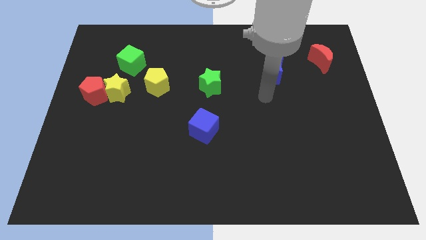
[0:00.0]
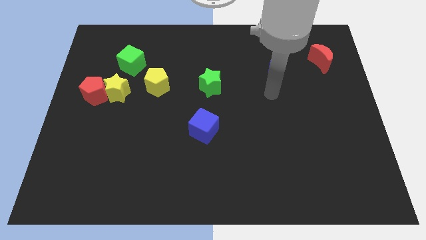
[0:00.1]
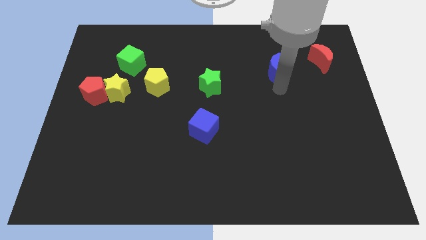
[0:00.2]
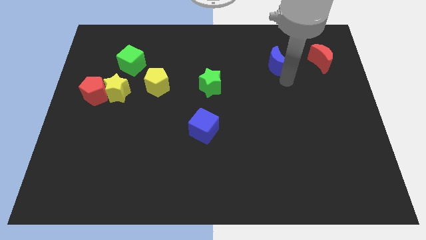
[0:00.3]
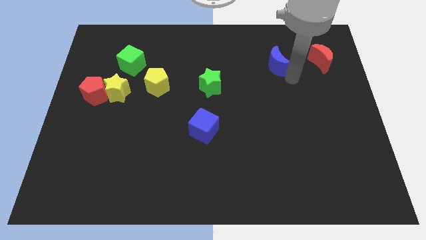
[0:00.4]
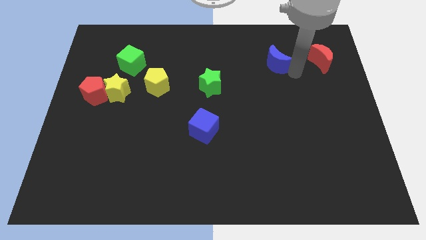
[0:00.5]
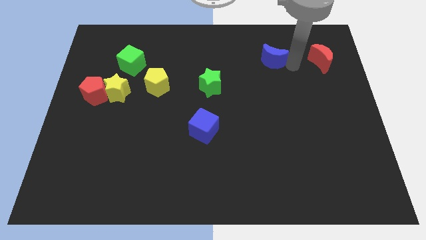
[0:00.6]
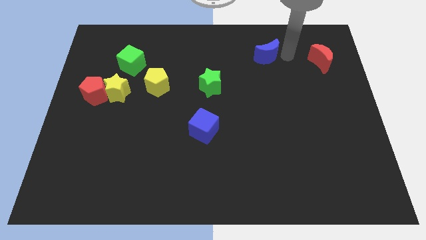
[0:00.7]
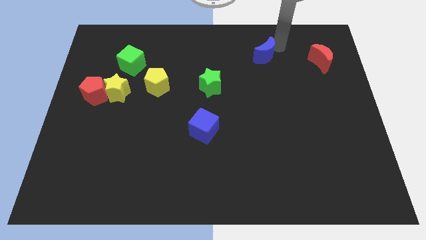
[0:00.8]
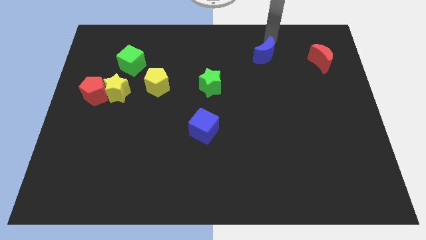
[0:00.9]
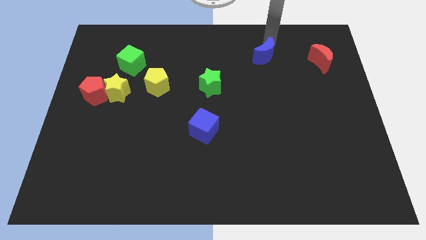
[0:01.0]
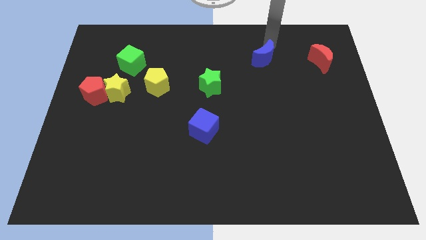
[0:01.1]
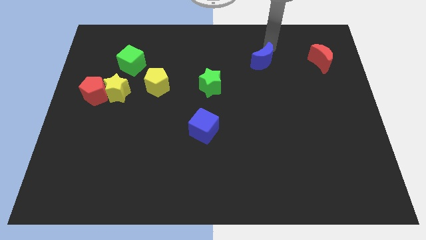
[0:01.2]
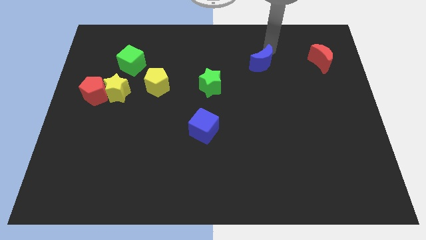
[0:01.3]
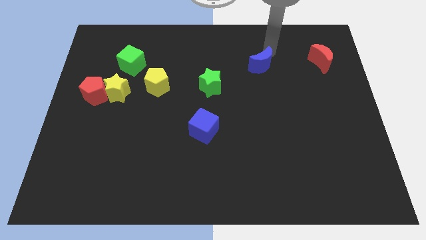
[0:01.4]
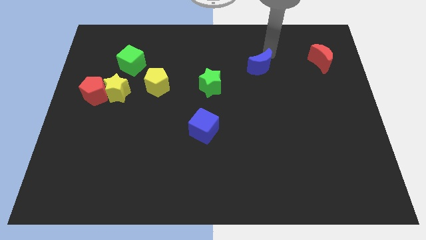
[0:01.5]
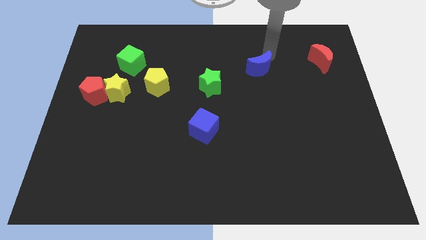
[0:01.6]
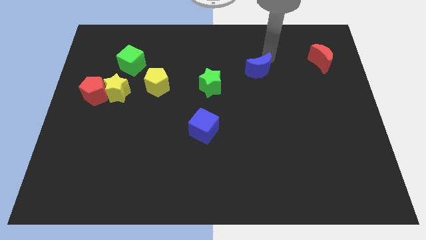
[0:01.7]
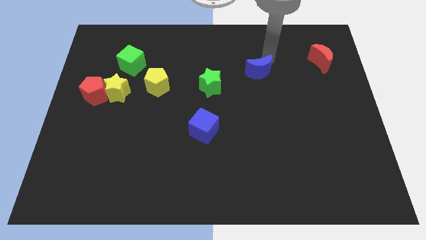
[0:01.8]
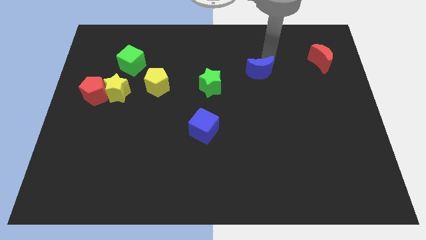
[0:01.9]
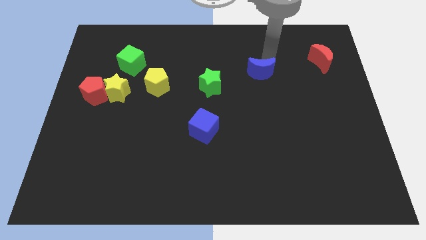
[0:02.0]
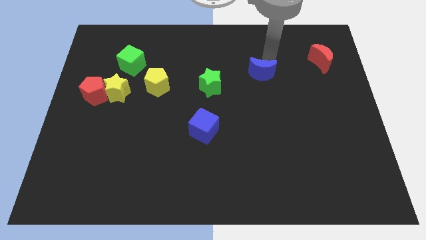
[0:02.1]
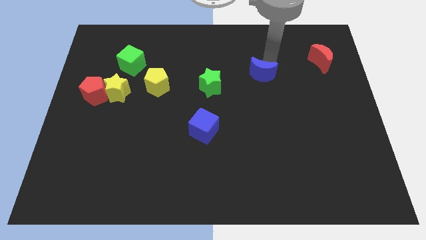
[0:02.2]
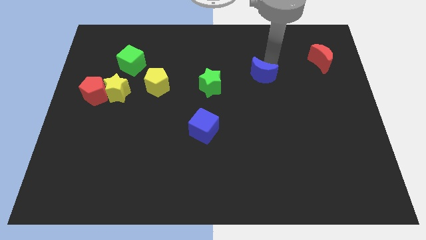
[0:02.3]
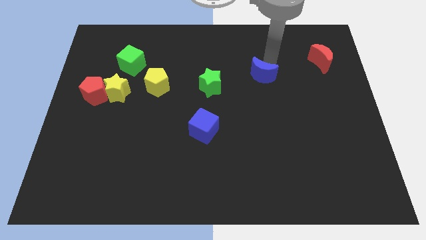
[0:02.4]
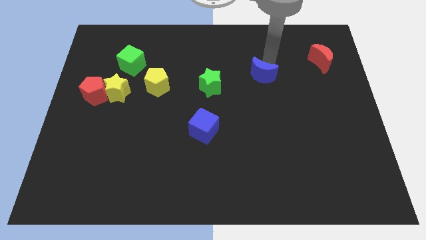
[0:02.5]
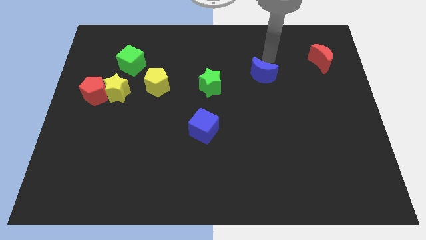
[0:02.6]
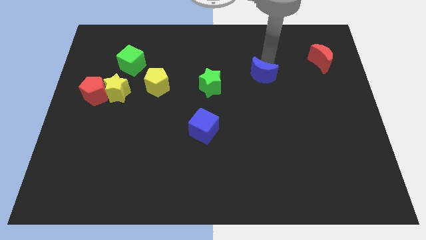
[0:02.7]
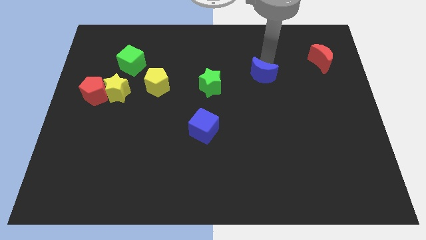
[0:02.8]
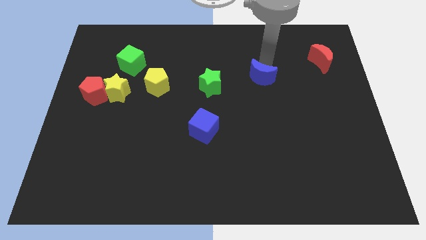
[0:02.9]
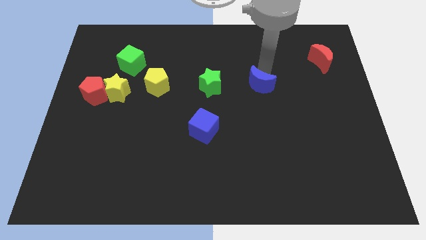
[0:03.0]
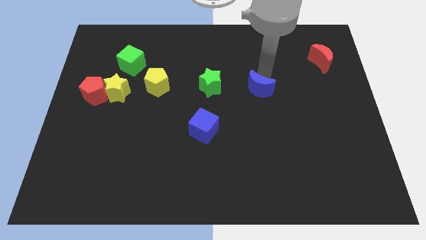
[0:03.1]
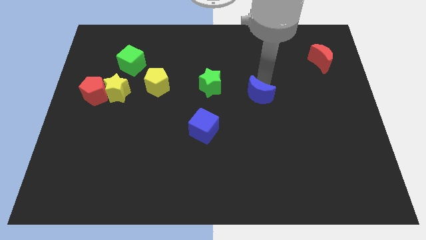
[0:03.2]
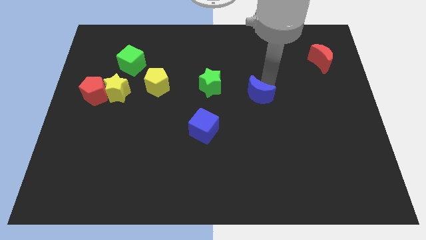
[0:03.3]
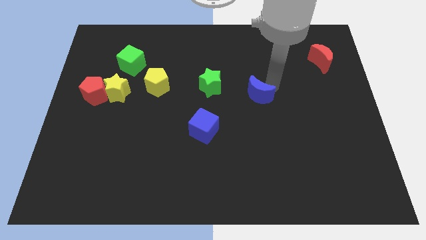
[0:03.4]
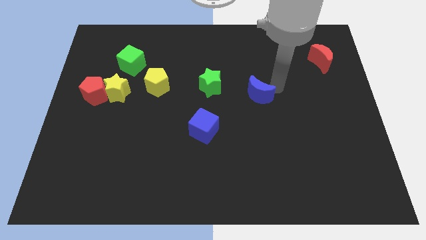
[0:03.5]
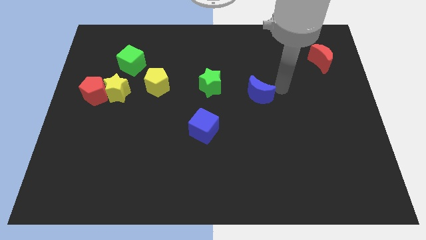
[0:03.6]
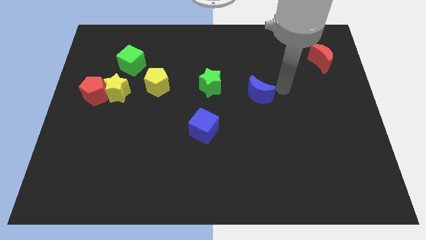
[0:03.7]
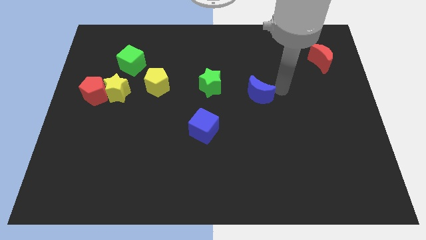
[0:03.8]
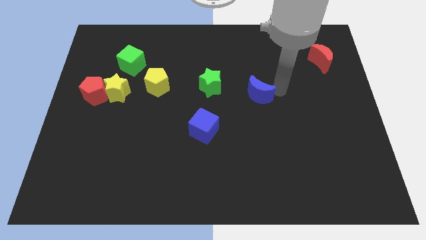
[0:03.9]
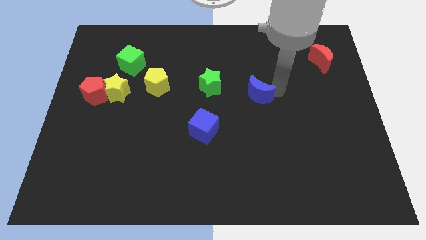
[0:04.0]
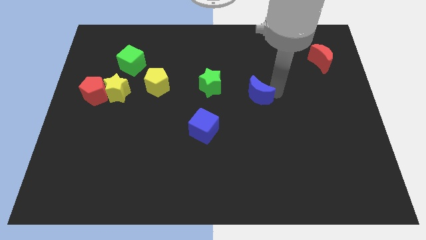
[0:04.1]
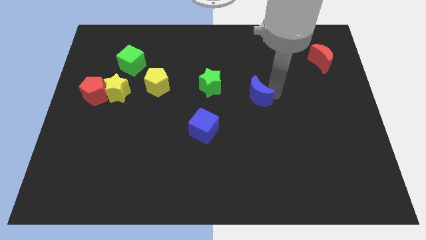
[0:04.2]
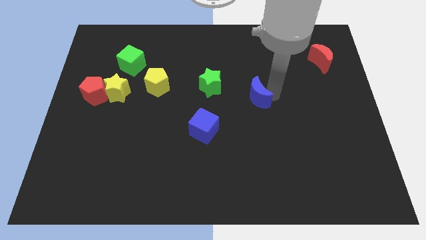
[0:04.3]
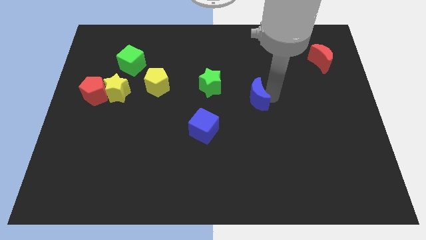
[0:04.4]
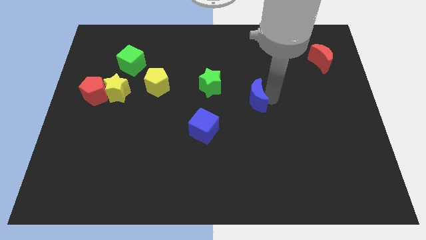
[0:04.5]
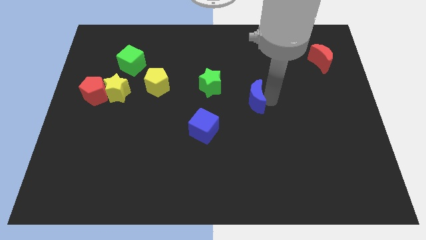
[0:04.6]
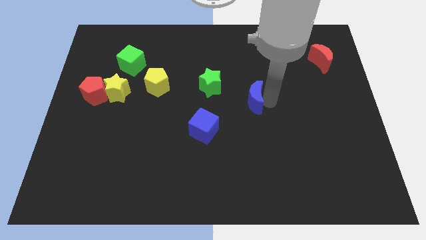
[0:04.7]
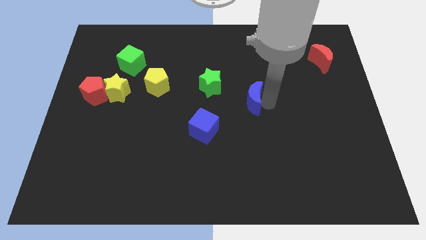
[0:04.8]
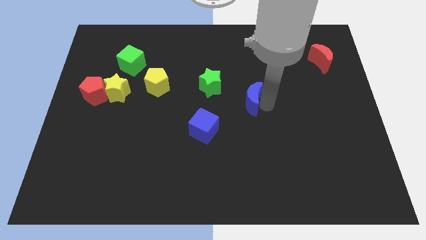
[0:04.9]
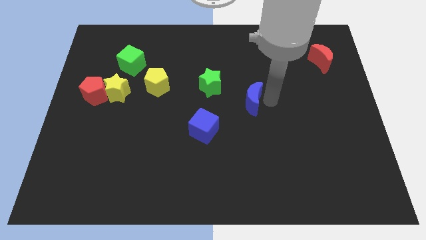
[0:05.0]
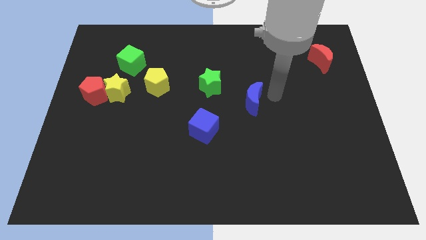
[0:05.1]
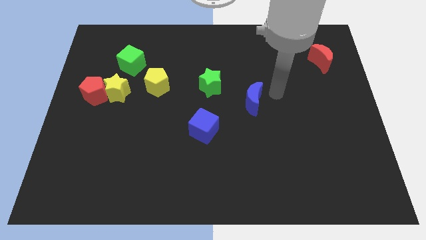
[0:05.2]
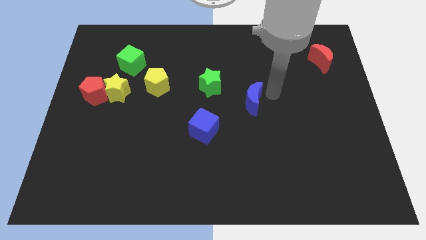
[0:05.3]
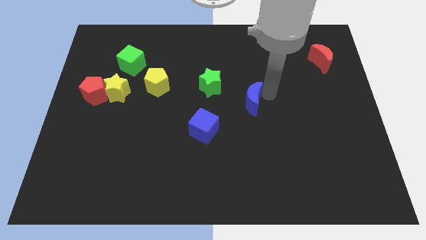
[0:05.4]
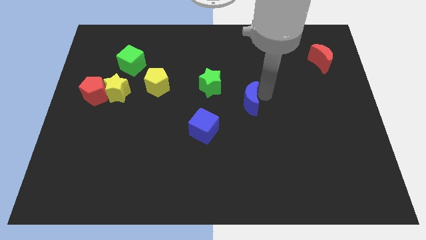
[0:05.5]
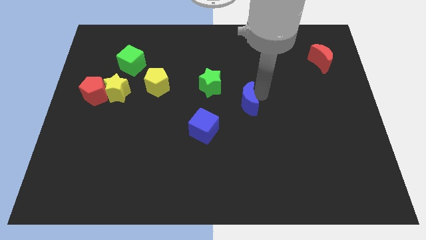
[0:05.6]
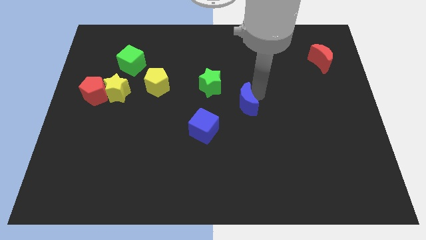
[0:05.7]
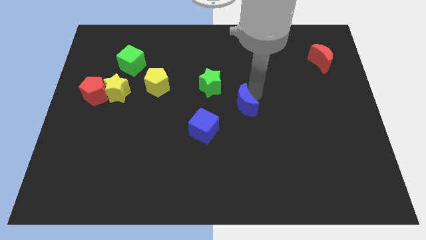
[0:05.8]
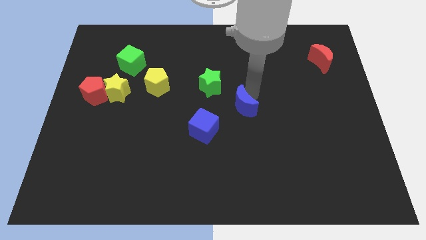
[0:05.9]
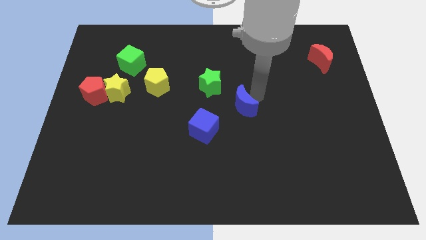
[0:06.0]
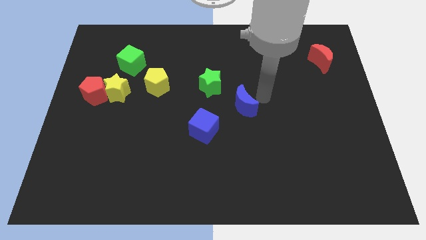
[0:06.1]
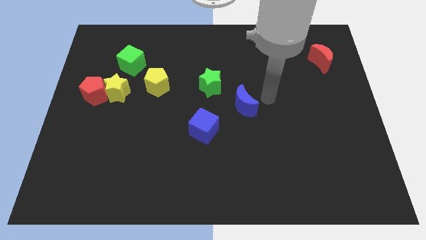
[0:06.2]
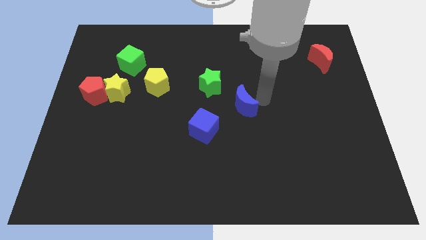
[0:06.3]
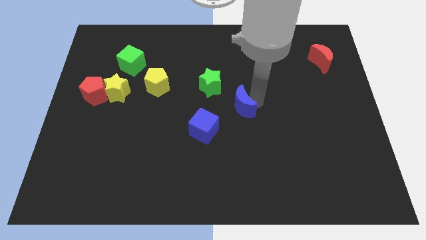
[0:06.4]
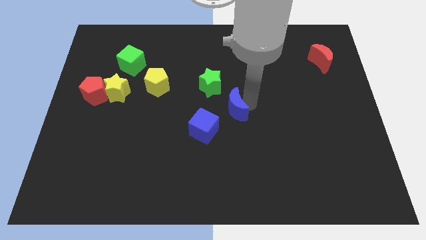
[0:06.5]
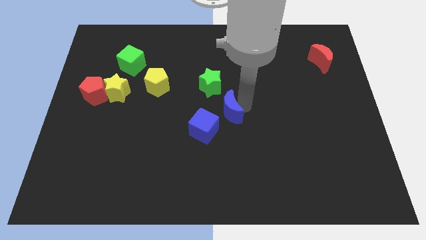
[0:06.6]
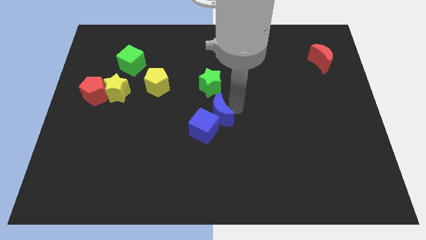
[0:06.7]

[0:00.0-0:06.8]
push the blue moon close to the blue cube
